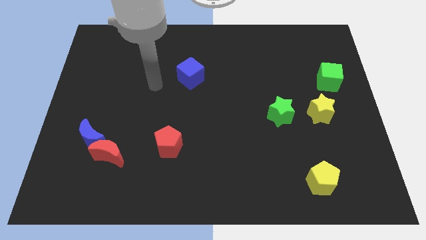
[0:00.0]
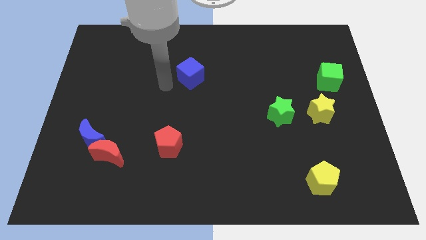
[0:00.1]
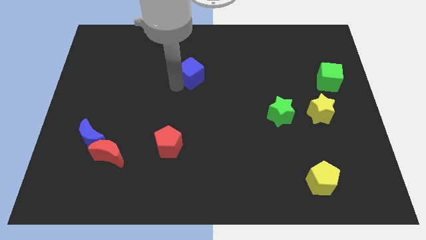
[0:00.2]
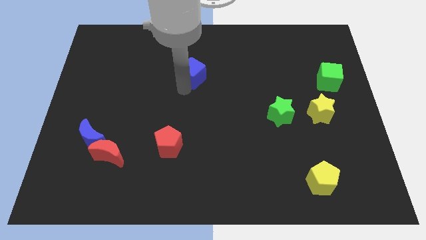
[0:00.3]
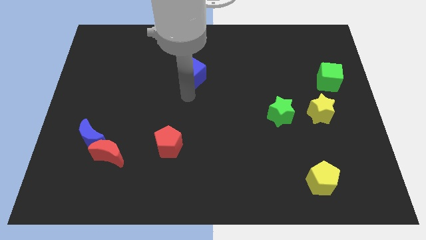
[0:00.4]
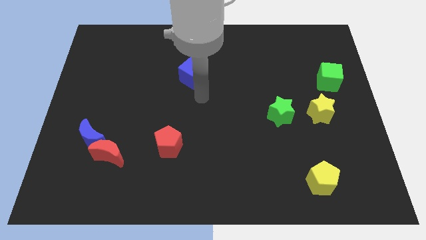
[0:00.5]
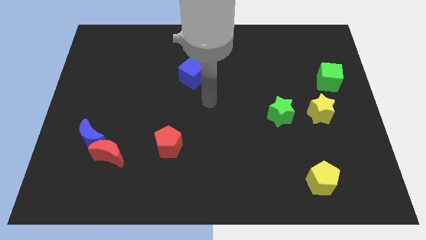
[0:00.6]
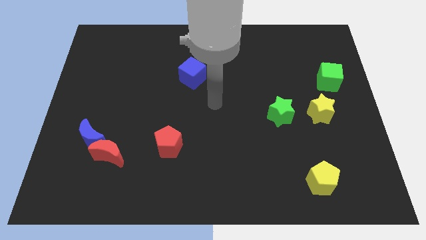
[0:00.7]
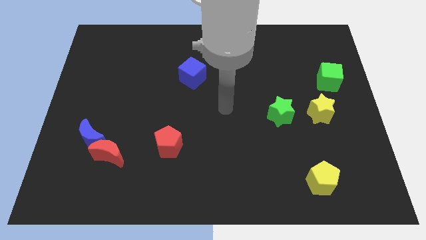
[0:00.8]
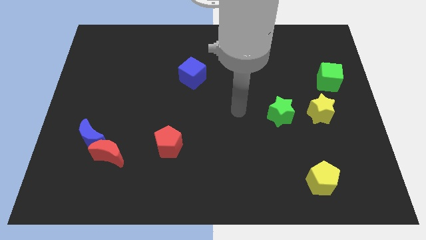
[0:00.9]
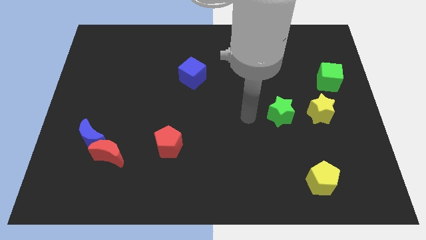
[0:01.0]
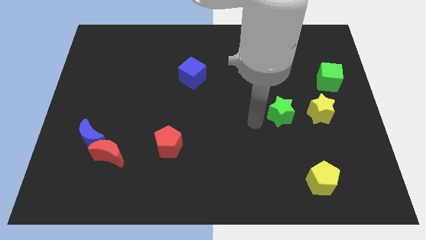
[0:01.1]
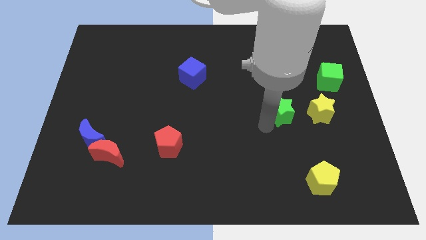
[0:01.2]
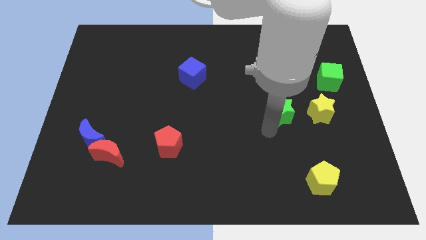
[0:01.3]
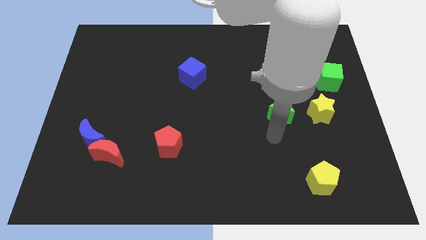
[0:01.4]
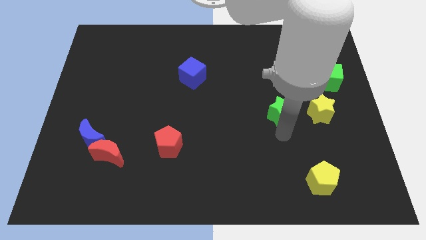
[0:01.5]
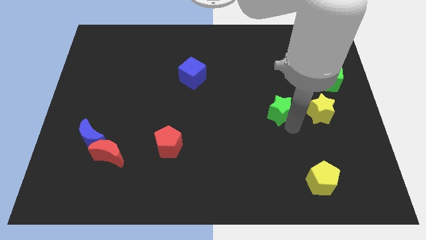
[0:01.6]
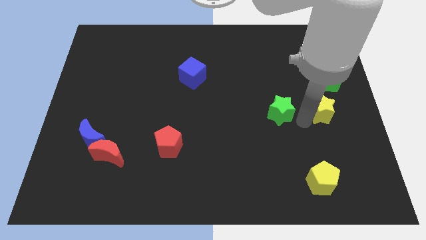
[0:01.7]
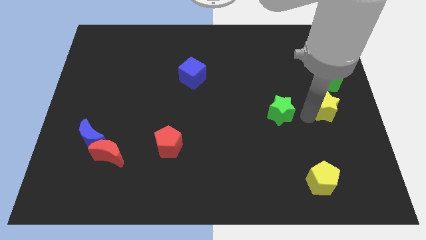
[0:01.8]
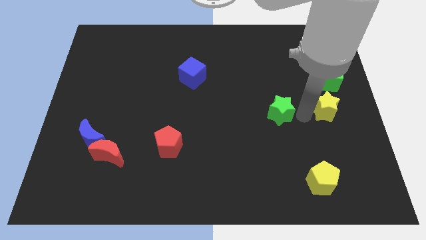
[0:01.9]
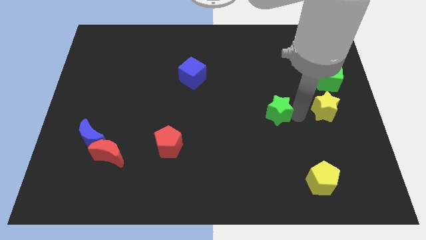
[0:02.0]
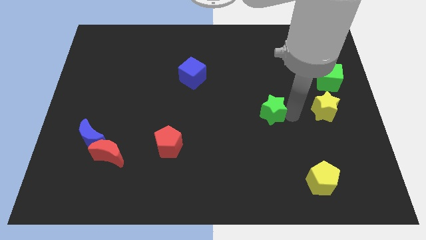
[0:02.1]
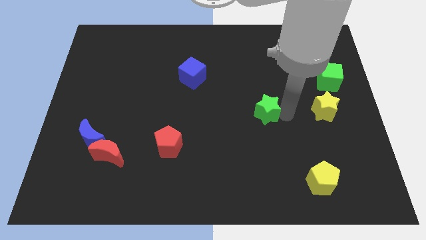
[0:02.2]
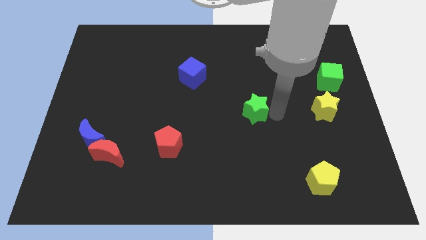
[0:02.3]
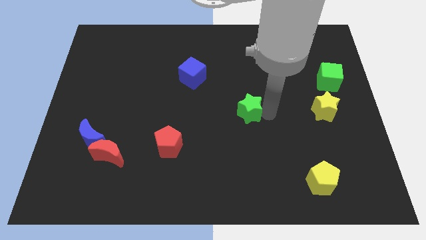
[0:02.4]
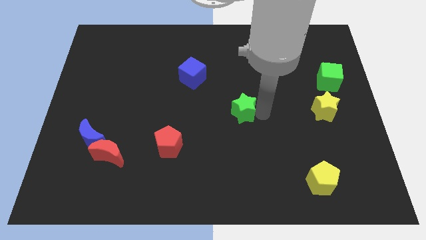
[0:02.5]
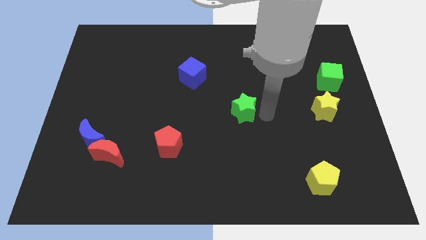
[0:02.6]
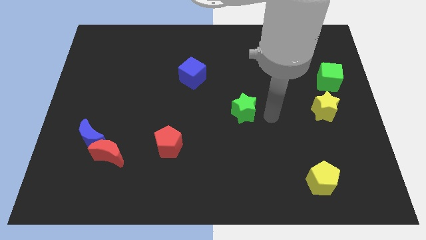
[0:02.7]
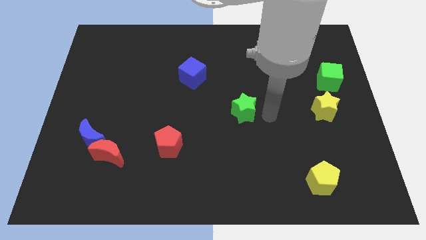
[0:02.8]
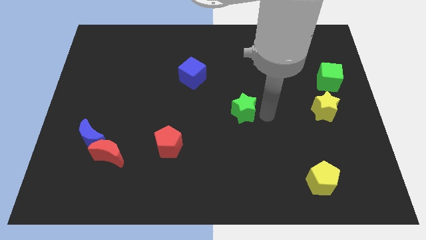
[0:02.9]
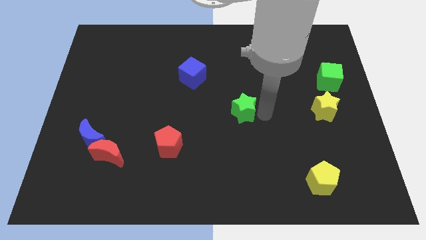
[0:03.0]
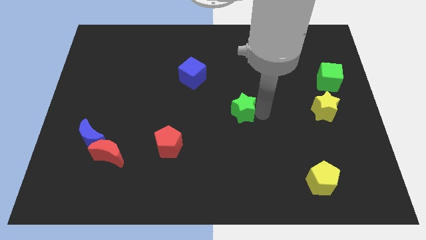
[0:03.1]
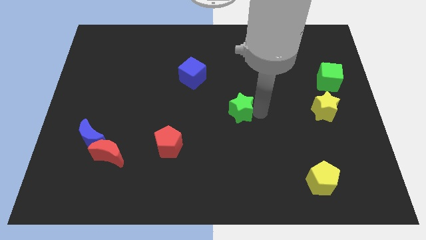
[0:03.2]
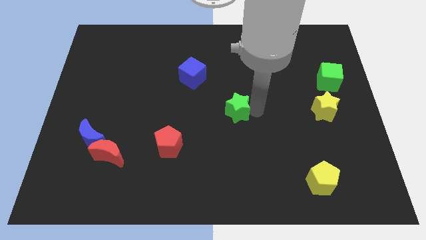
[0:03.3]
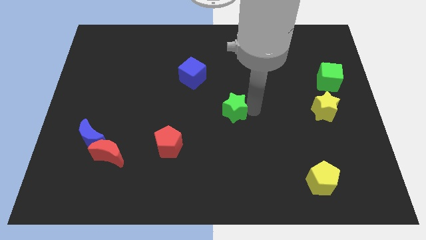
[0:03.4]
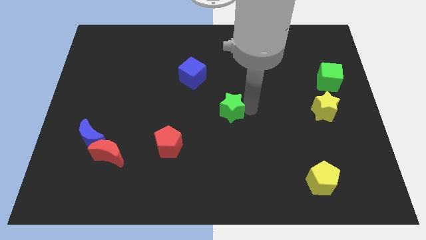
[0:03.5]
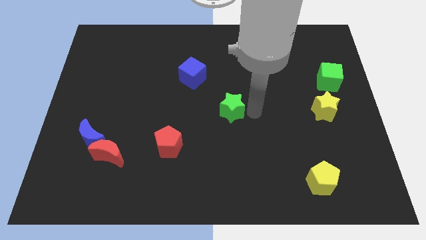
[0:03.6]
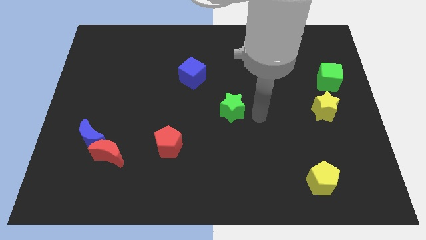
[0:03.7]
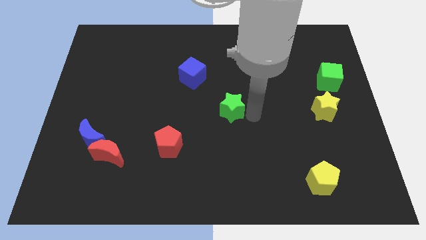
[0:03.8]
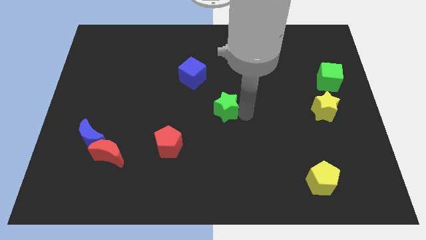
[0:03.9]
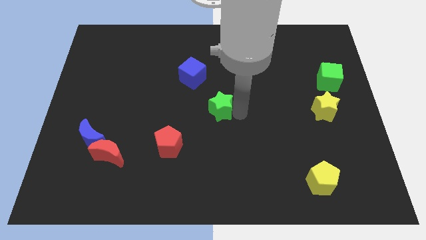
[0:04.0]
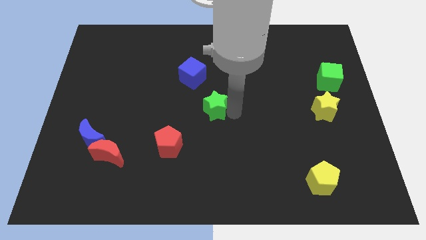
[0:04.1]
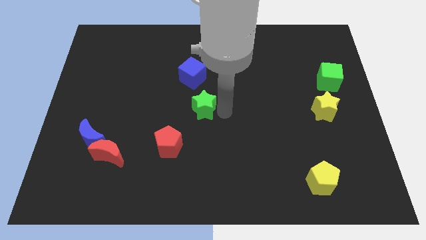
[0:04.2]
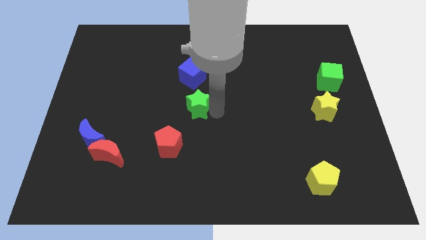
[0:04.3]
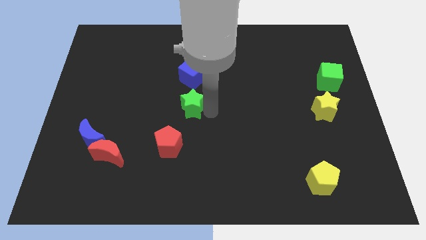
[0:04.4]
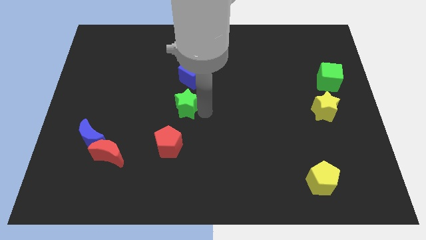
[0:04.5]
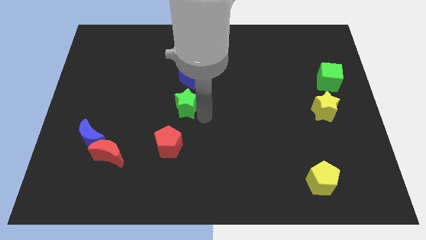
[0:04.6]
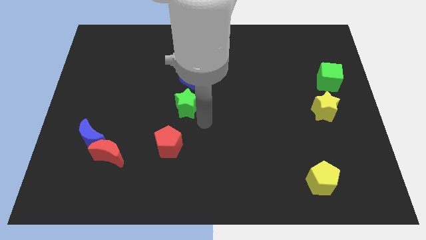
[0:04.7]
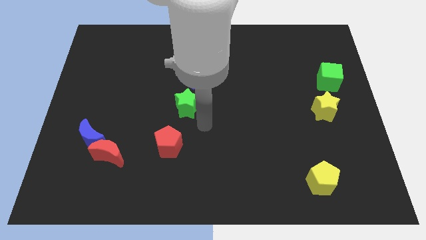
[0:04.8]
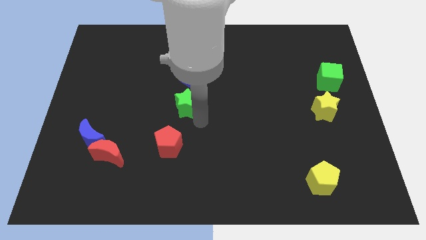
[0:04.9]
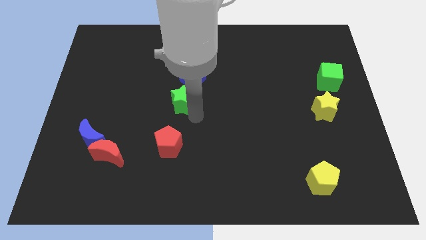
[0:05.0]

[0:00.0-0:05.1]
push the green star diagonally down and to the left of the blue cube

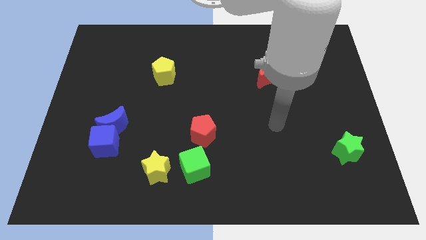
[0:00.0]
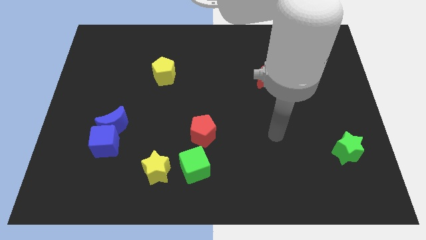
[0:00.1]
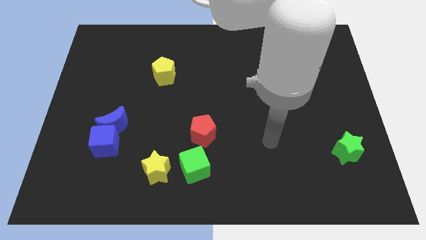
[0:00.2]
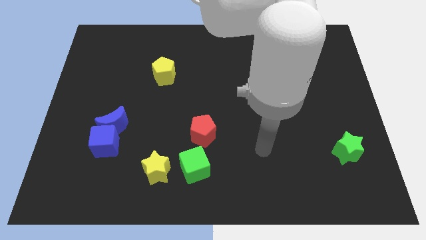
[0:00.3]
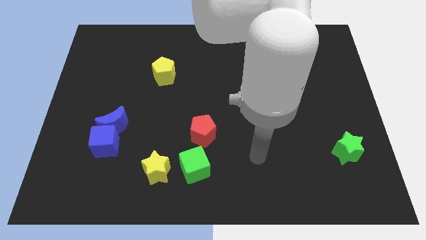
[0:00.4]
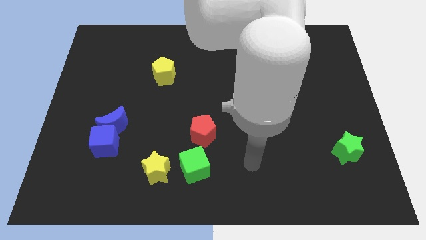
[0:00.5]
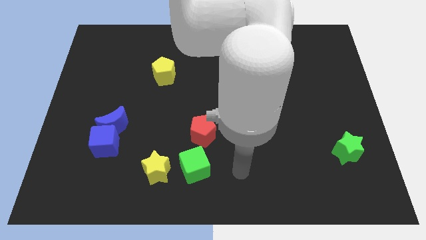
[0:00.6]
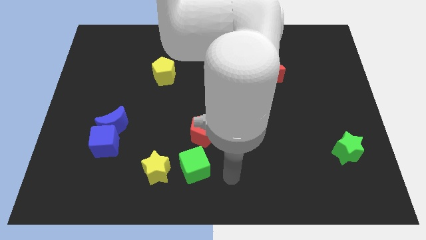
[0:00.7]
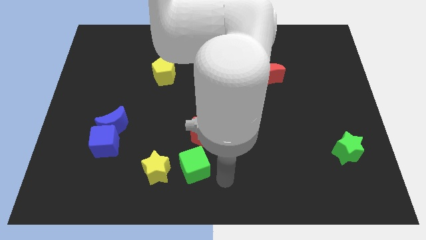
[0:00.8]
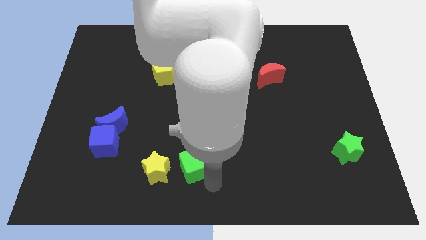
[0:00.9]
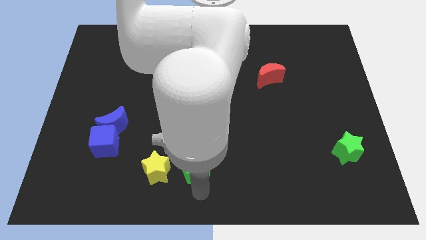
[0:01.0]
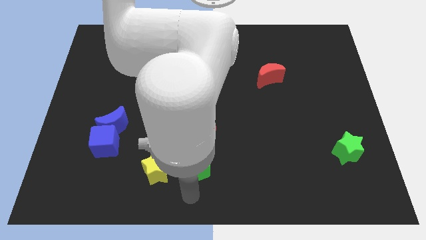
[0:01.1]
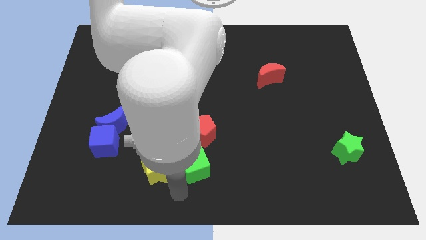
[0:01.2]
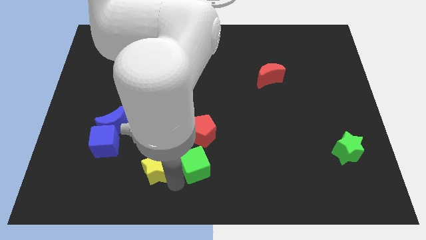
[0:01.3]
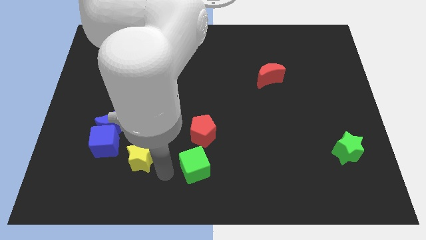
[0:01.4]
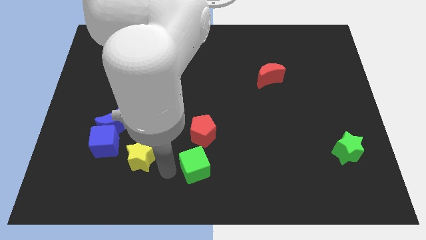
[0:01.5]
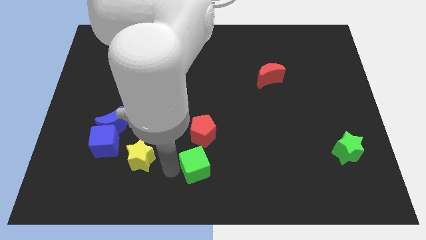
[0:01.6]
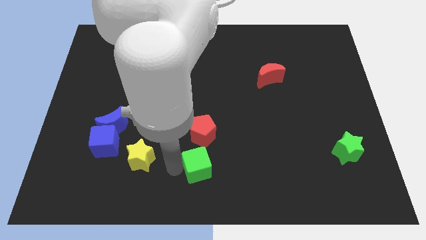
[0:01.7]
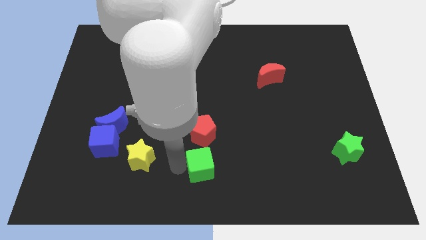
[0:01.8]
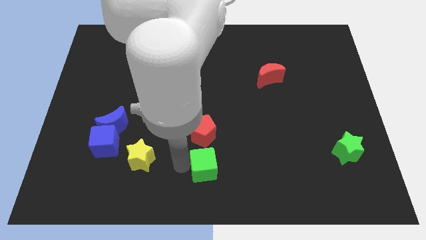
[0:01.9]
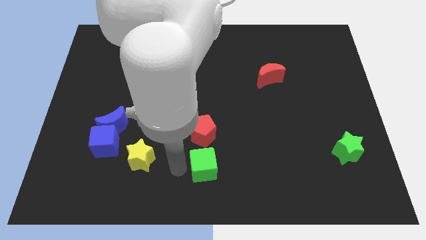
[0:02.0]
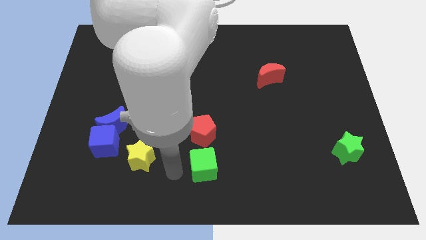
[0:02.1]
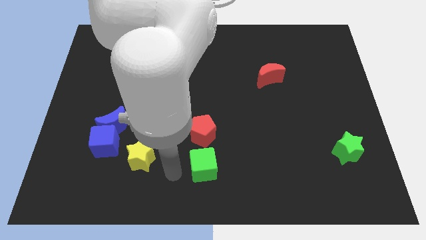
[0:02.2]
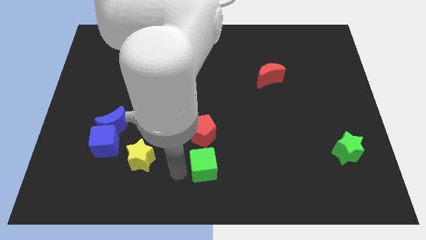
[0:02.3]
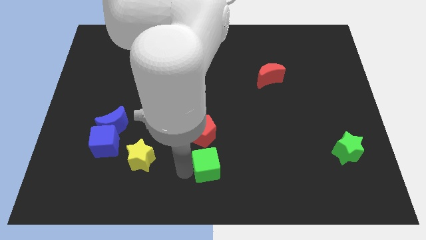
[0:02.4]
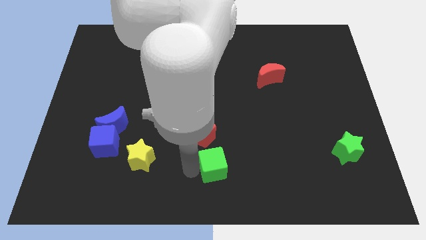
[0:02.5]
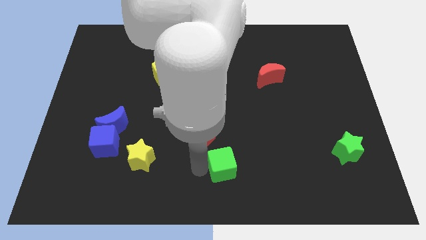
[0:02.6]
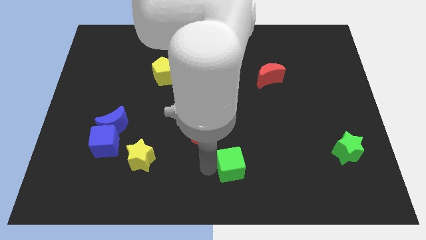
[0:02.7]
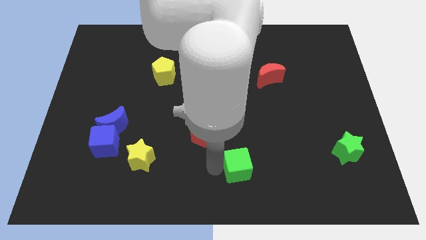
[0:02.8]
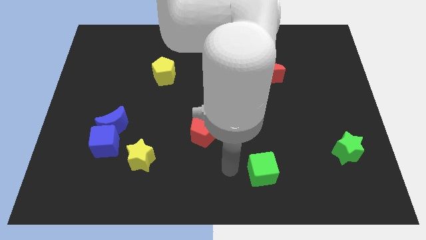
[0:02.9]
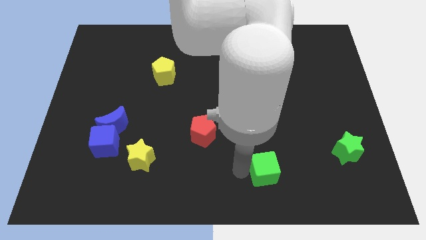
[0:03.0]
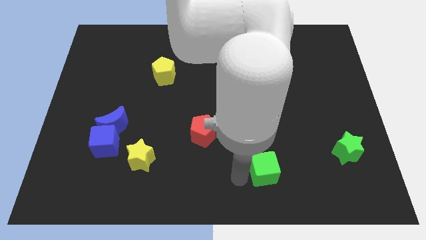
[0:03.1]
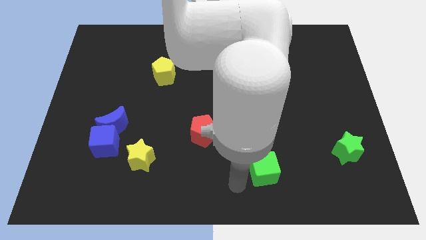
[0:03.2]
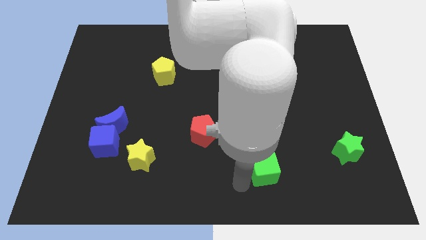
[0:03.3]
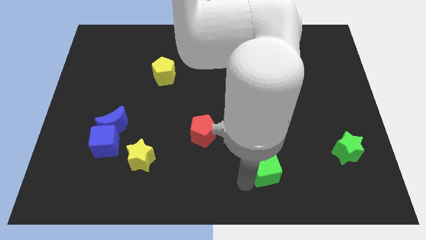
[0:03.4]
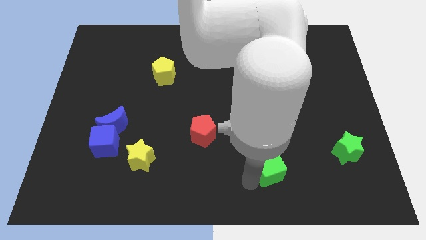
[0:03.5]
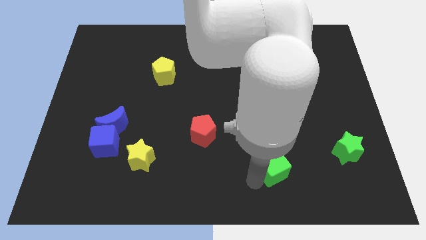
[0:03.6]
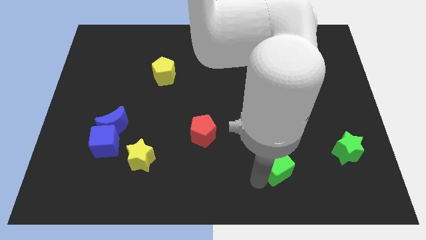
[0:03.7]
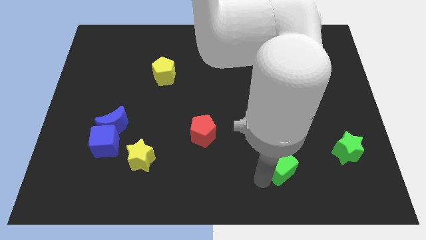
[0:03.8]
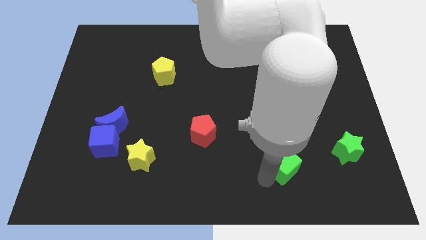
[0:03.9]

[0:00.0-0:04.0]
put the green cube left of the green star
